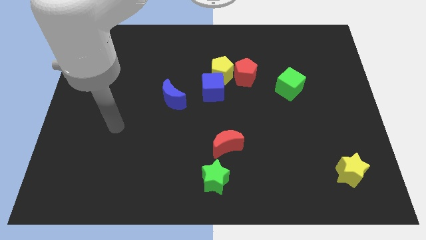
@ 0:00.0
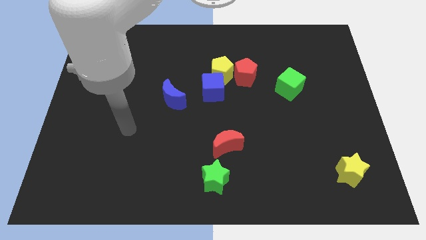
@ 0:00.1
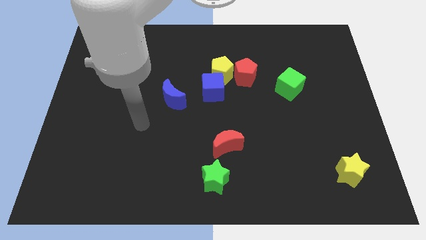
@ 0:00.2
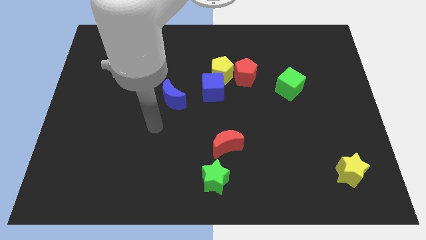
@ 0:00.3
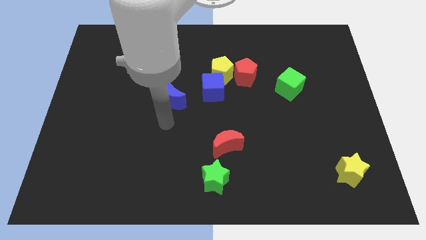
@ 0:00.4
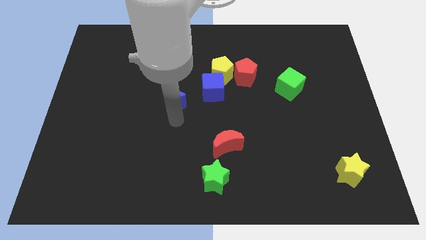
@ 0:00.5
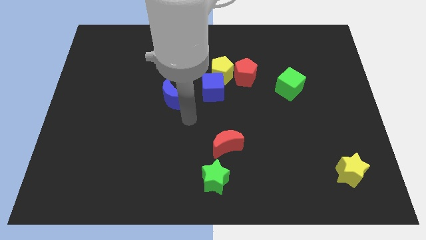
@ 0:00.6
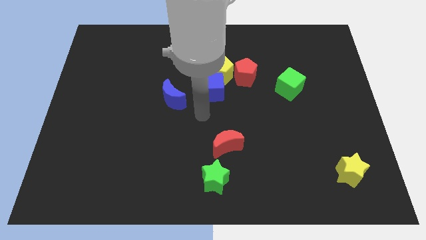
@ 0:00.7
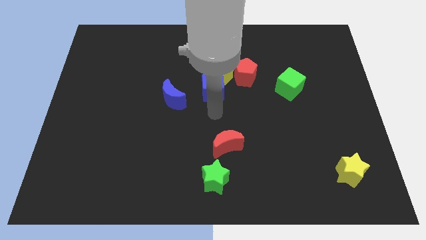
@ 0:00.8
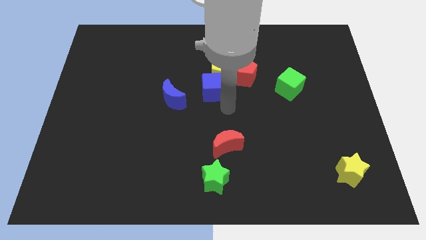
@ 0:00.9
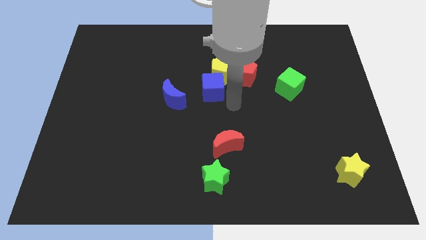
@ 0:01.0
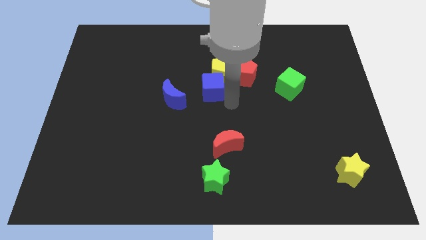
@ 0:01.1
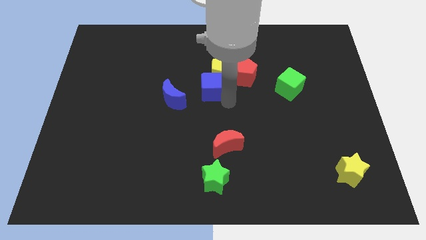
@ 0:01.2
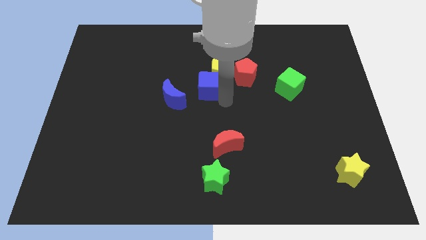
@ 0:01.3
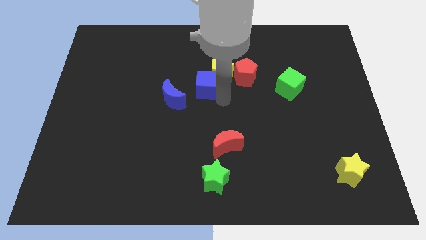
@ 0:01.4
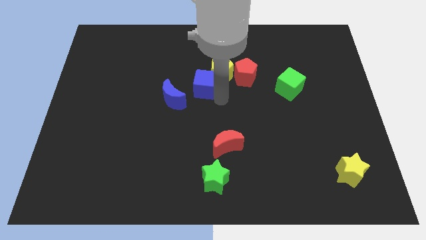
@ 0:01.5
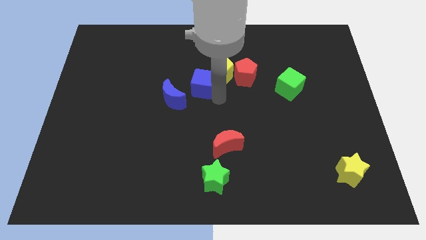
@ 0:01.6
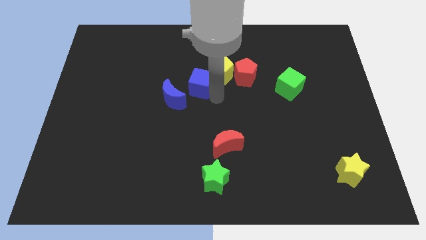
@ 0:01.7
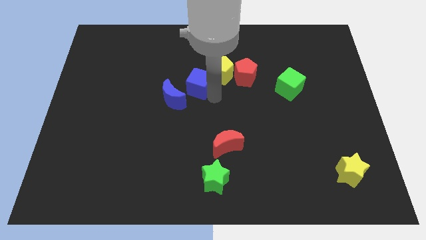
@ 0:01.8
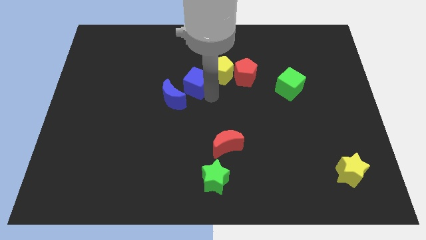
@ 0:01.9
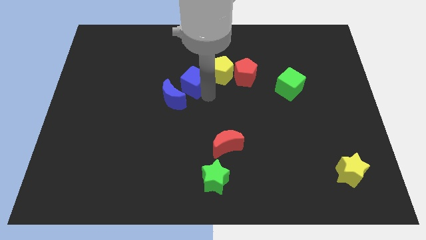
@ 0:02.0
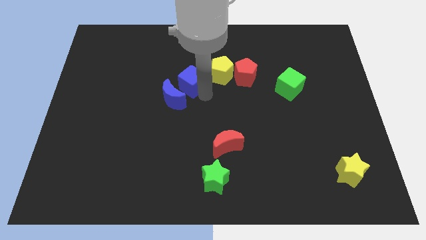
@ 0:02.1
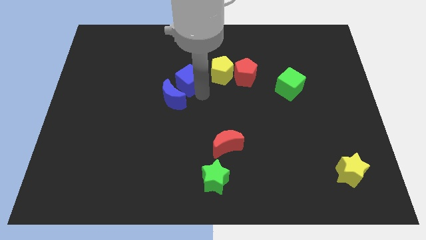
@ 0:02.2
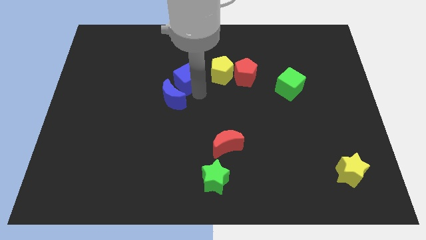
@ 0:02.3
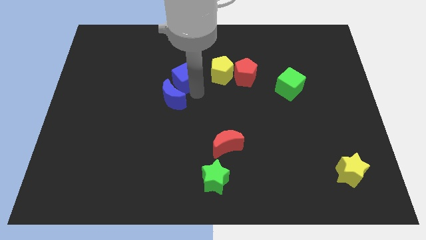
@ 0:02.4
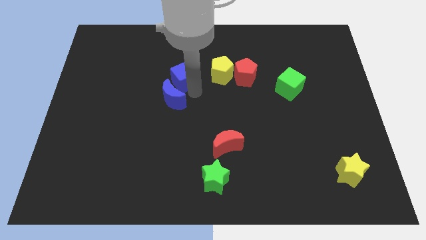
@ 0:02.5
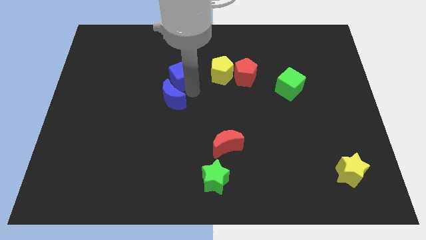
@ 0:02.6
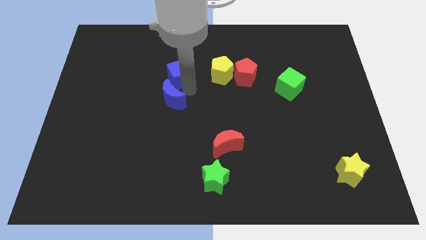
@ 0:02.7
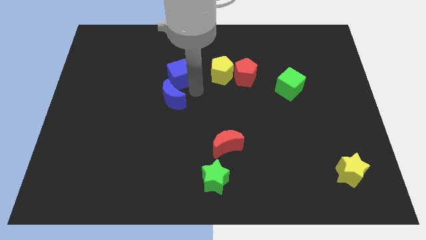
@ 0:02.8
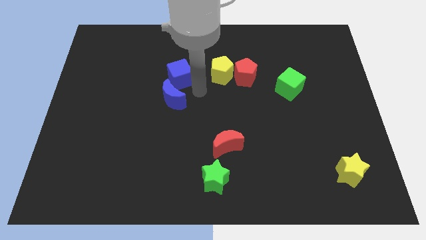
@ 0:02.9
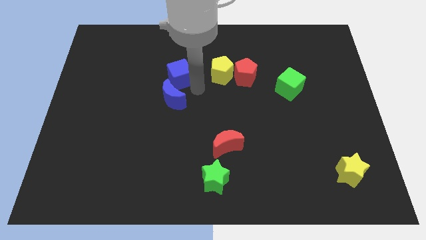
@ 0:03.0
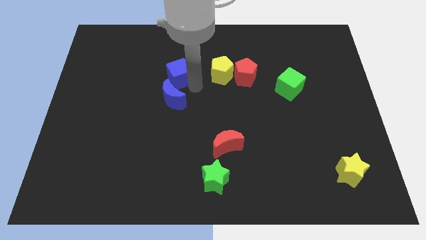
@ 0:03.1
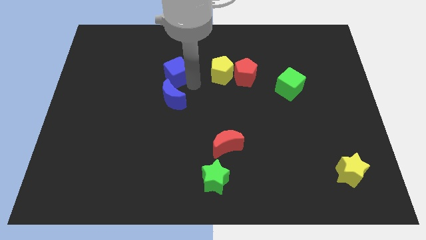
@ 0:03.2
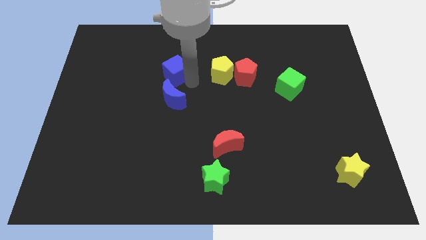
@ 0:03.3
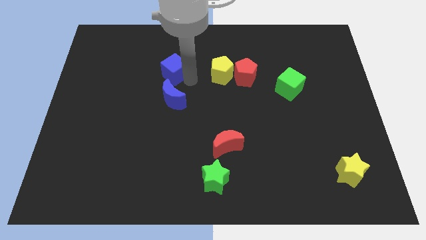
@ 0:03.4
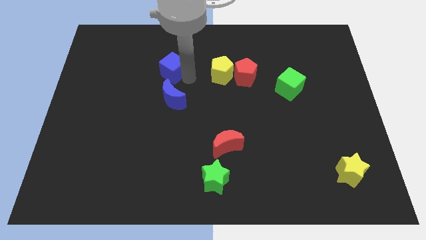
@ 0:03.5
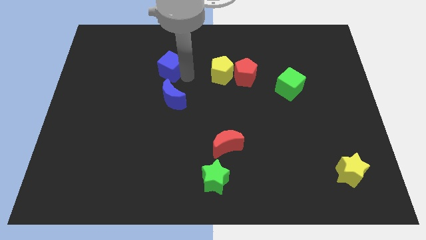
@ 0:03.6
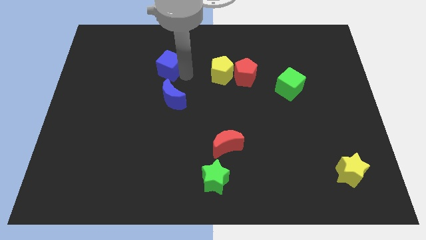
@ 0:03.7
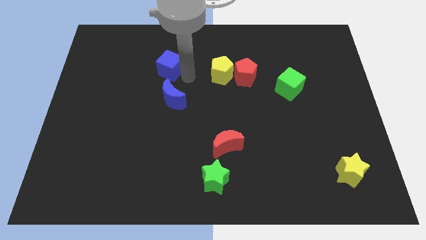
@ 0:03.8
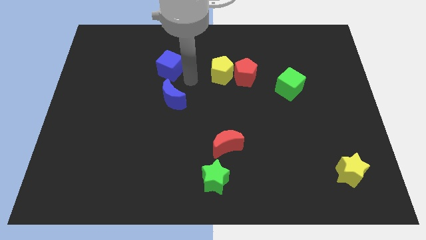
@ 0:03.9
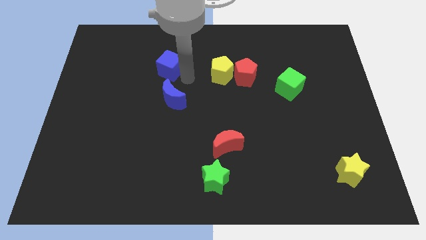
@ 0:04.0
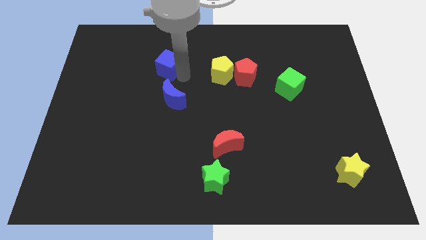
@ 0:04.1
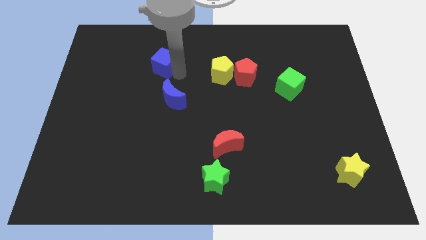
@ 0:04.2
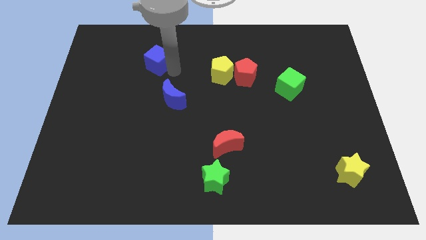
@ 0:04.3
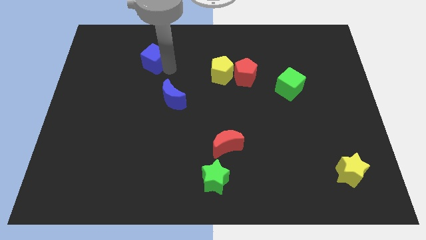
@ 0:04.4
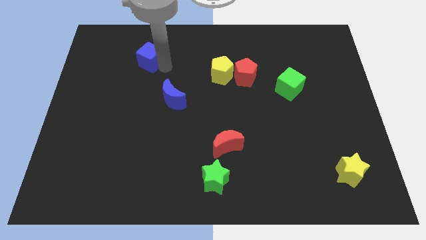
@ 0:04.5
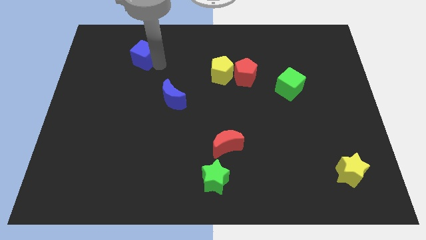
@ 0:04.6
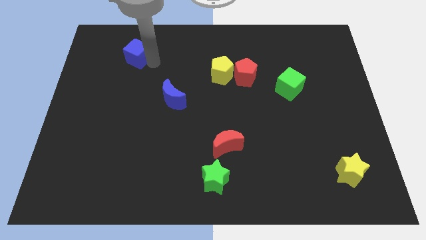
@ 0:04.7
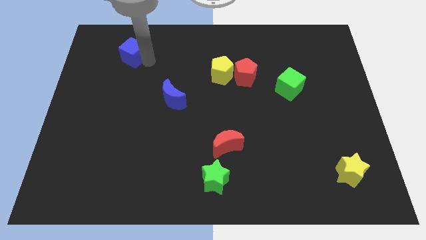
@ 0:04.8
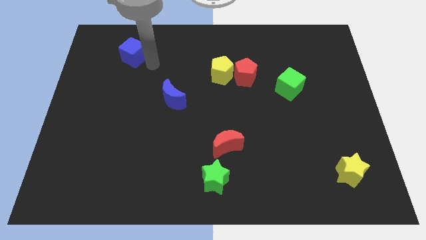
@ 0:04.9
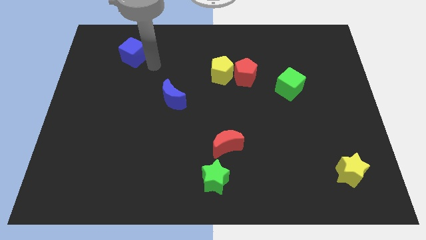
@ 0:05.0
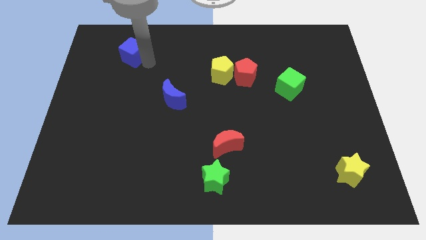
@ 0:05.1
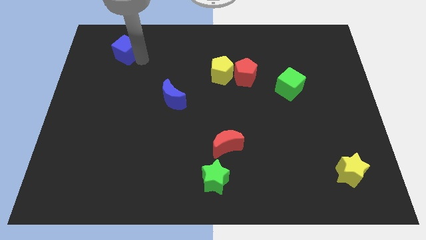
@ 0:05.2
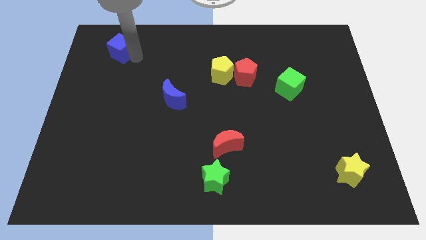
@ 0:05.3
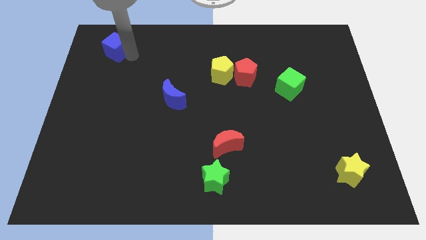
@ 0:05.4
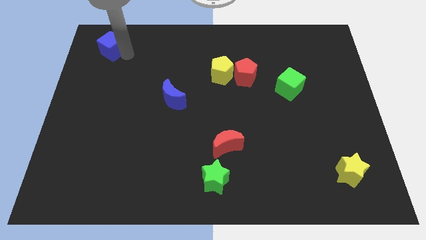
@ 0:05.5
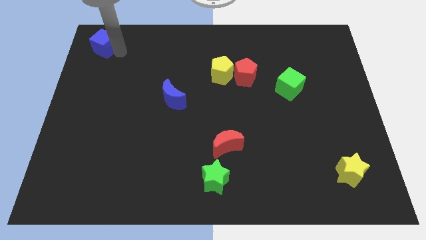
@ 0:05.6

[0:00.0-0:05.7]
slide the blue cube to the top left of the board

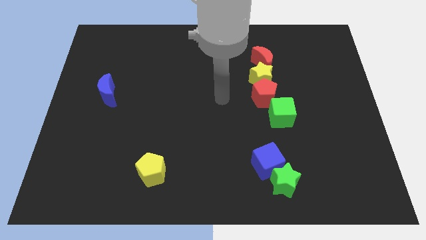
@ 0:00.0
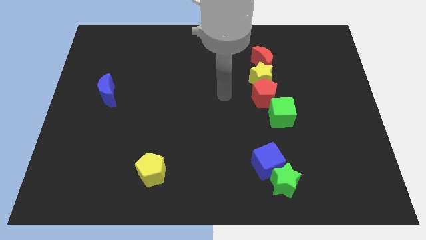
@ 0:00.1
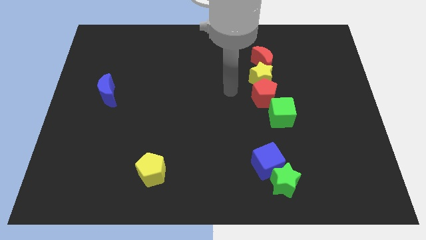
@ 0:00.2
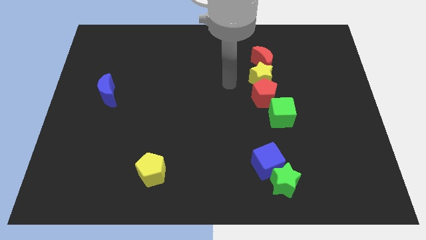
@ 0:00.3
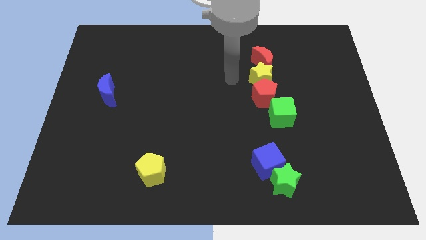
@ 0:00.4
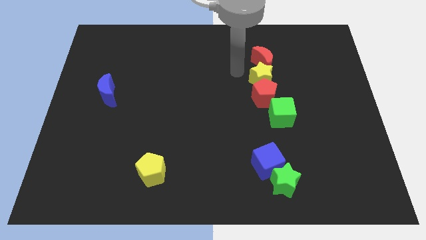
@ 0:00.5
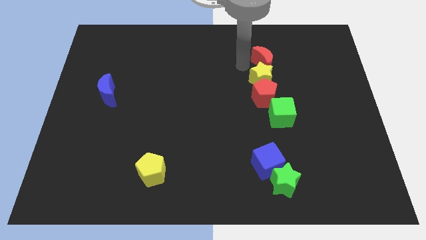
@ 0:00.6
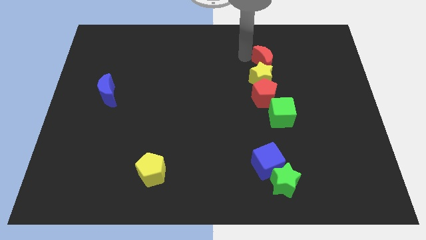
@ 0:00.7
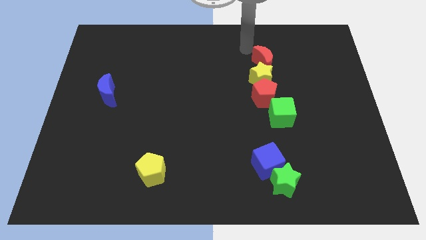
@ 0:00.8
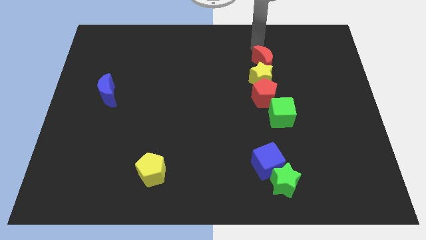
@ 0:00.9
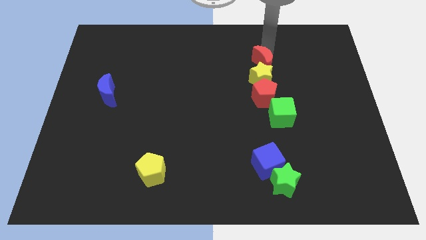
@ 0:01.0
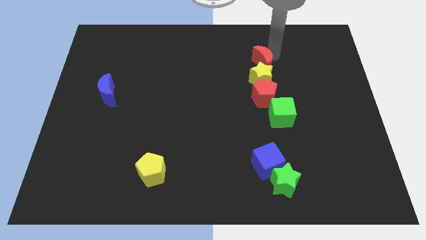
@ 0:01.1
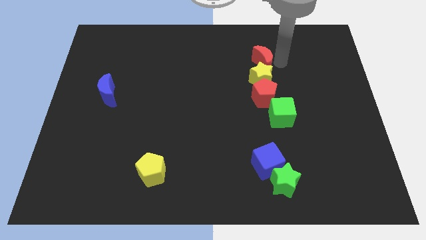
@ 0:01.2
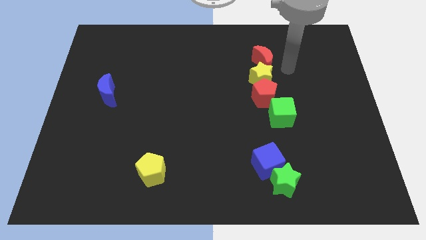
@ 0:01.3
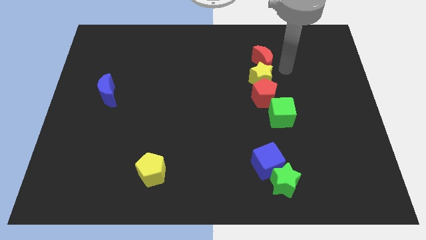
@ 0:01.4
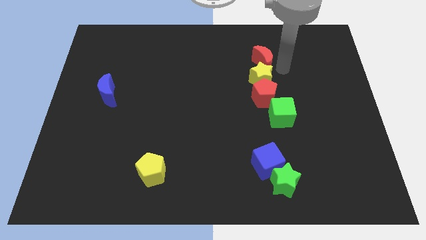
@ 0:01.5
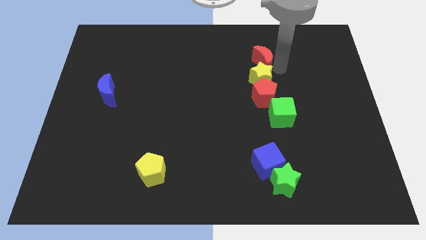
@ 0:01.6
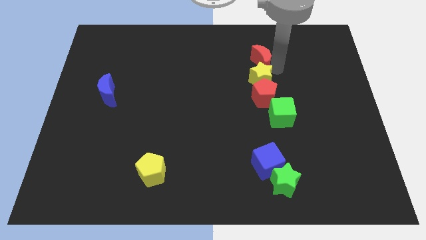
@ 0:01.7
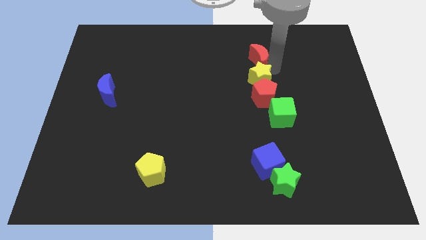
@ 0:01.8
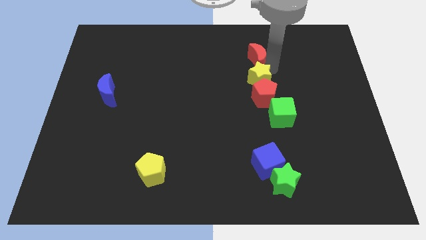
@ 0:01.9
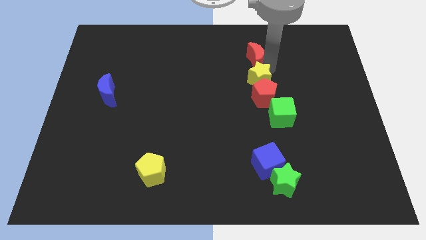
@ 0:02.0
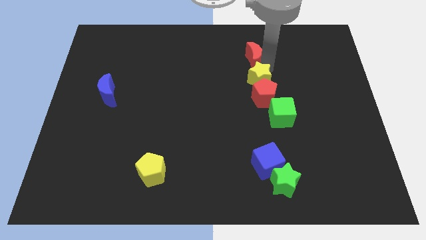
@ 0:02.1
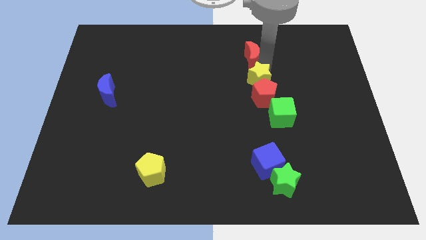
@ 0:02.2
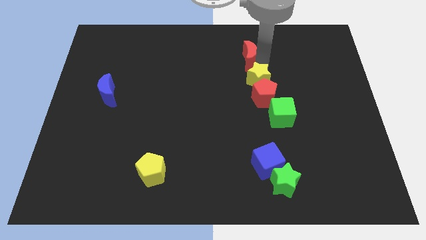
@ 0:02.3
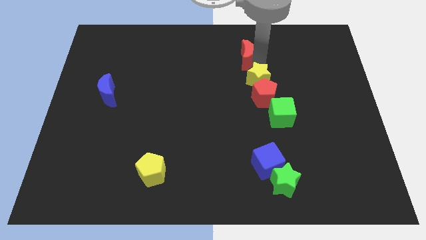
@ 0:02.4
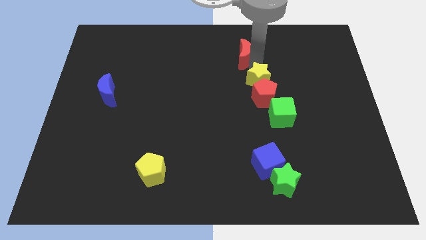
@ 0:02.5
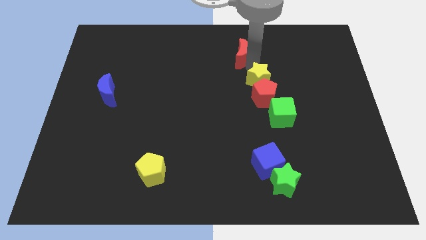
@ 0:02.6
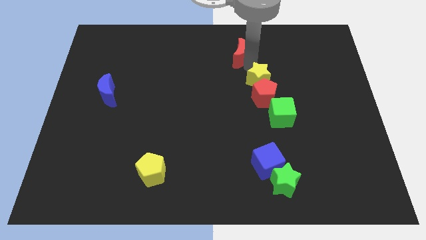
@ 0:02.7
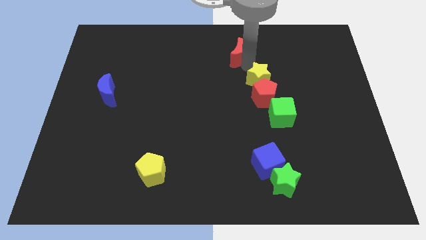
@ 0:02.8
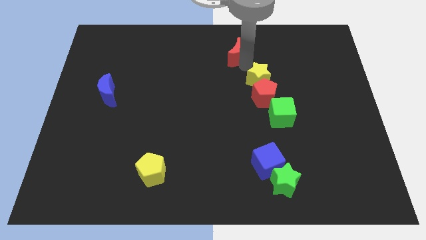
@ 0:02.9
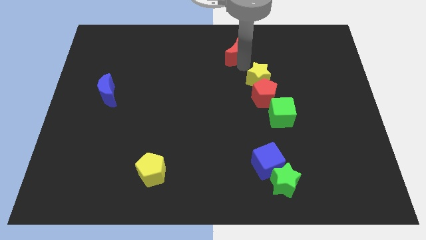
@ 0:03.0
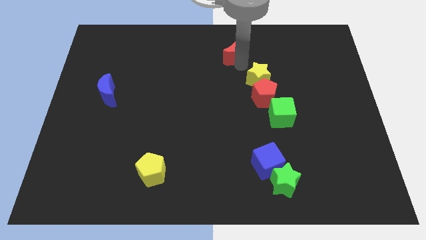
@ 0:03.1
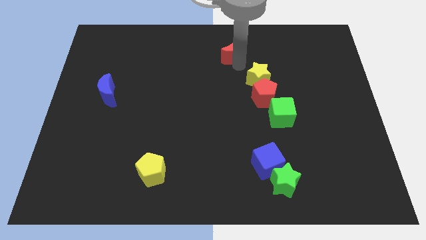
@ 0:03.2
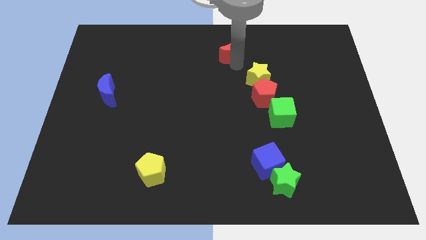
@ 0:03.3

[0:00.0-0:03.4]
move the red moon to the top side
